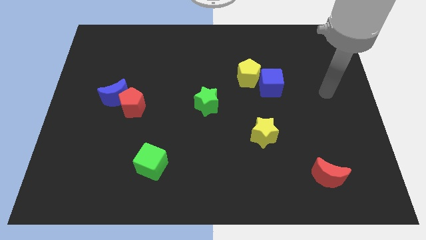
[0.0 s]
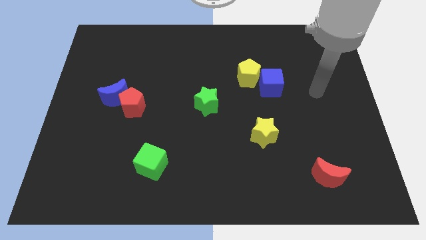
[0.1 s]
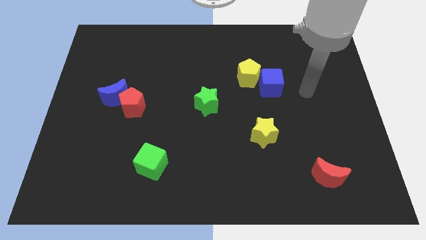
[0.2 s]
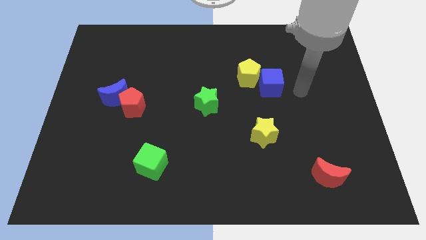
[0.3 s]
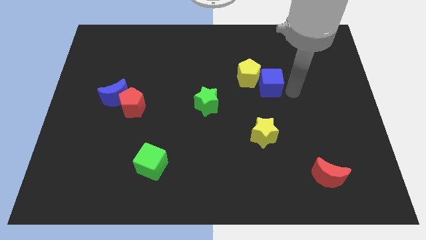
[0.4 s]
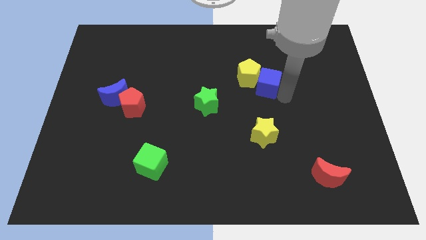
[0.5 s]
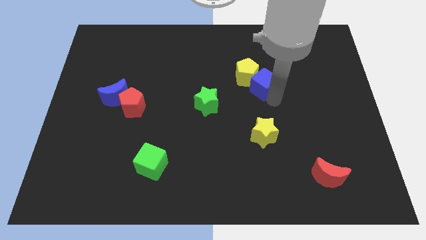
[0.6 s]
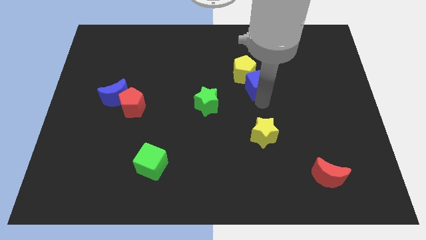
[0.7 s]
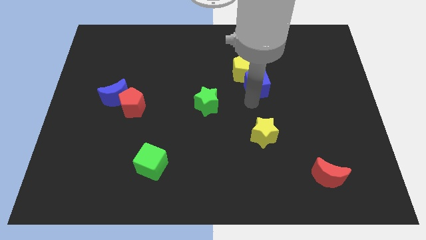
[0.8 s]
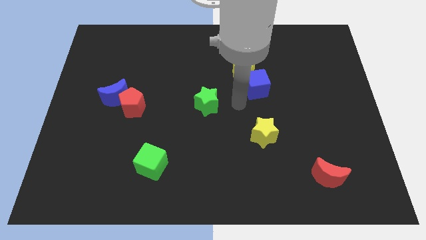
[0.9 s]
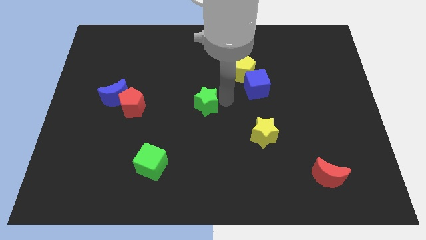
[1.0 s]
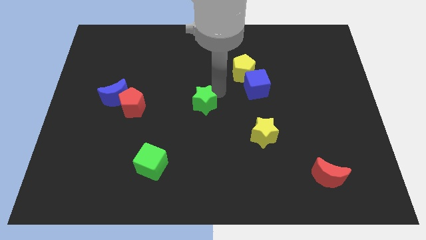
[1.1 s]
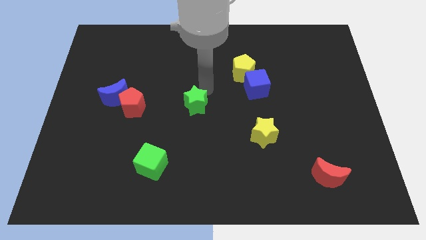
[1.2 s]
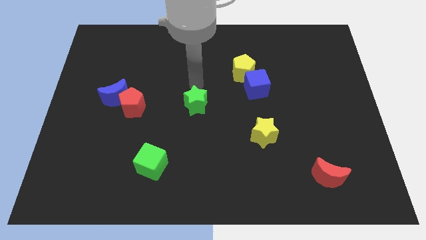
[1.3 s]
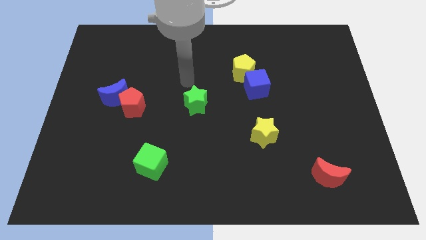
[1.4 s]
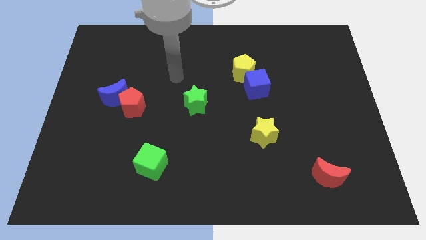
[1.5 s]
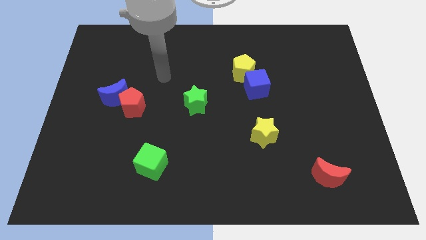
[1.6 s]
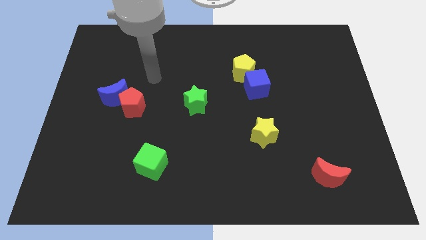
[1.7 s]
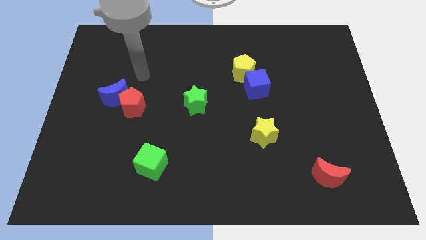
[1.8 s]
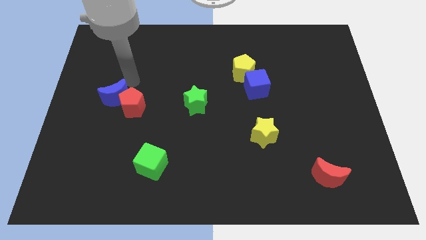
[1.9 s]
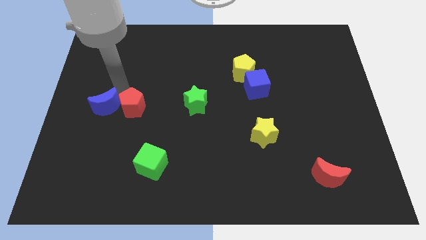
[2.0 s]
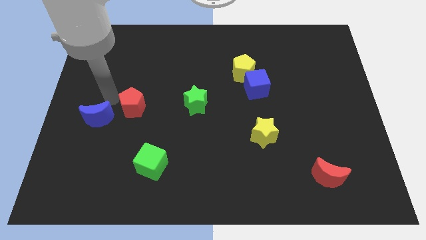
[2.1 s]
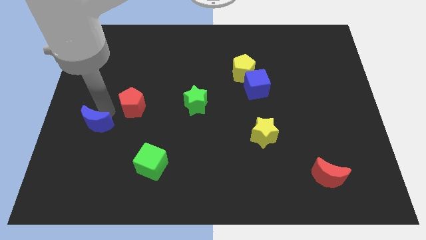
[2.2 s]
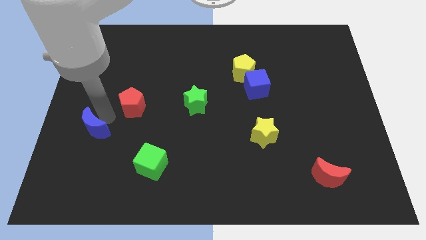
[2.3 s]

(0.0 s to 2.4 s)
pull the red pentagon apart from the blue moon

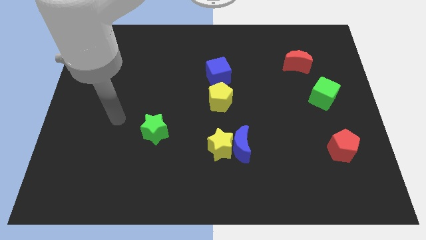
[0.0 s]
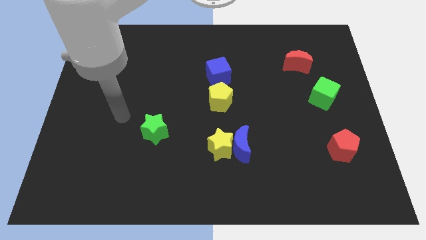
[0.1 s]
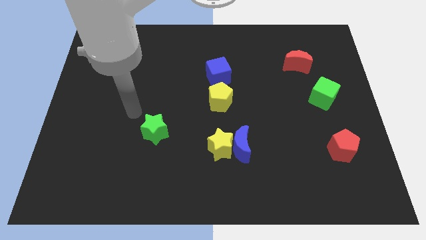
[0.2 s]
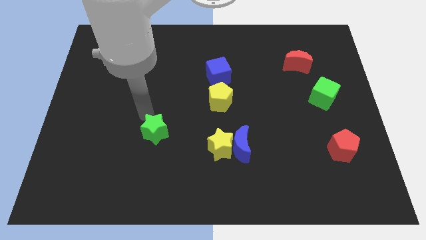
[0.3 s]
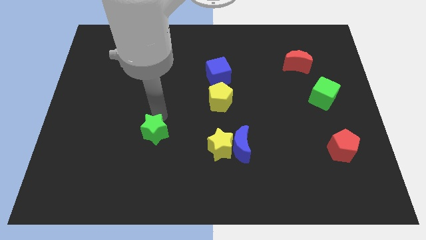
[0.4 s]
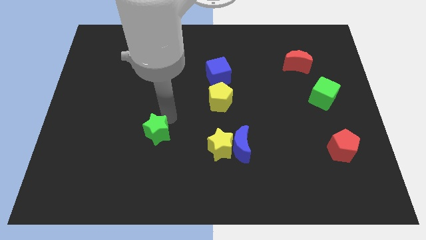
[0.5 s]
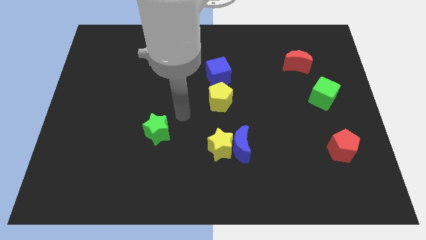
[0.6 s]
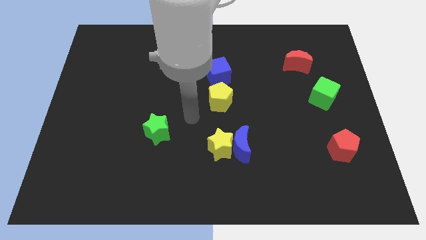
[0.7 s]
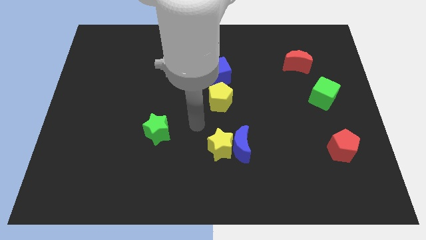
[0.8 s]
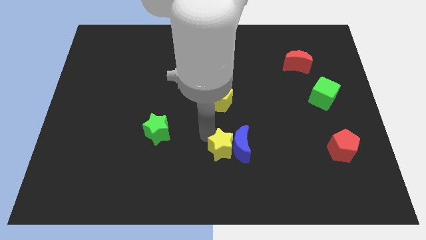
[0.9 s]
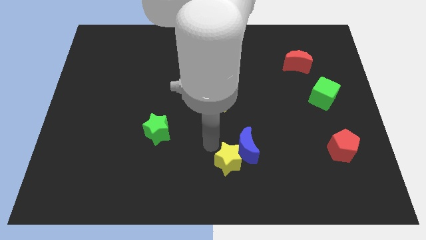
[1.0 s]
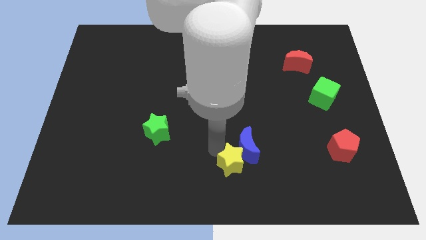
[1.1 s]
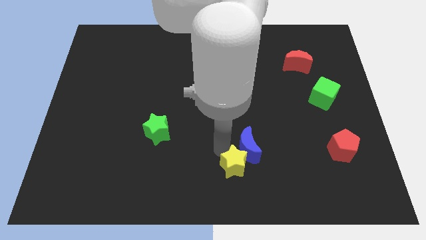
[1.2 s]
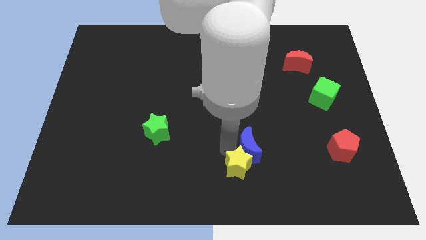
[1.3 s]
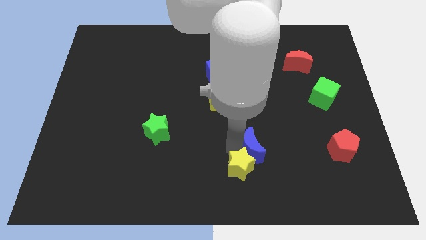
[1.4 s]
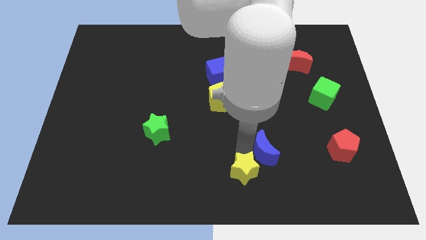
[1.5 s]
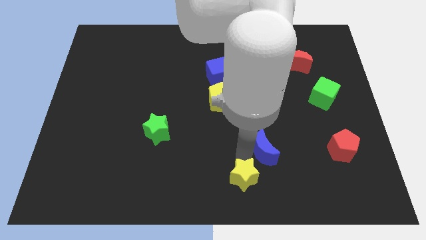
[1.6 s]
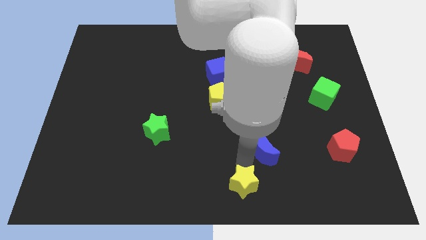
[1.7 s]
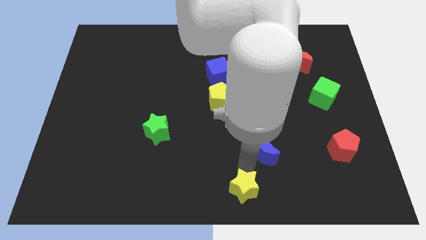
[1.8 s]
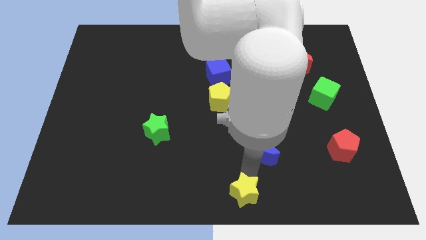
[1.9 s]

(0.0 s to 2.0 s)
pull the blue moon apart from the yellow star

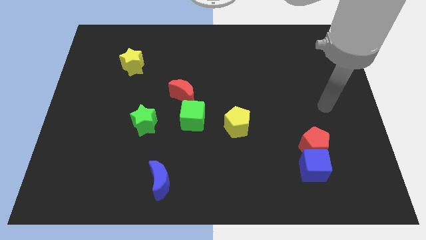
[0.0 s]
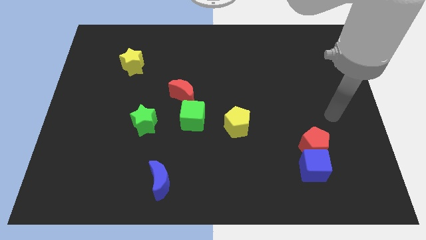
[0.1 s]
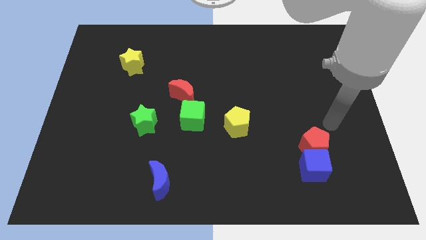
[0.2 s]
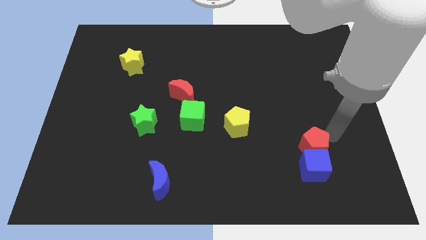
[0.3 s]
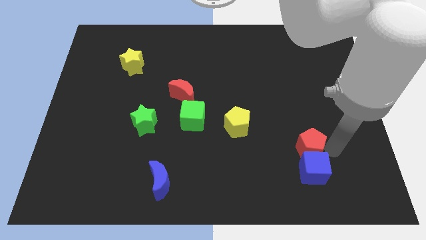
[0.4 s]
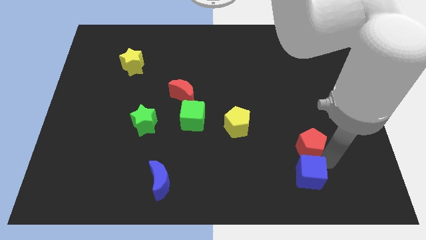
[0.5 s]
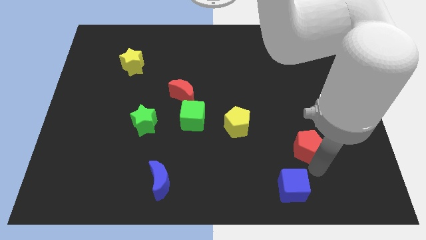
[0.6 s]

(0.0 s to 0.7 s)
move the red pentagon away from the blue cube

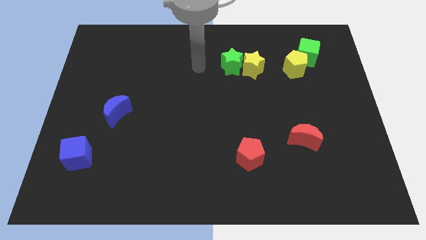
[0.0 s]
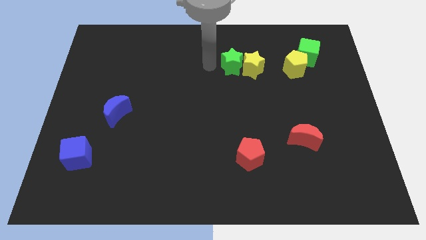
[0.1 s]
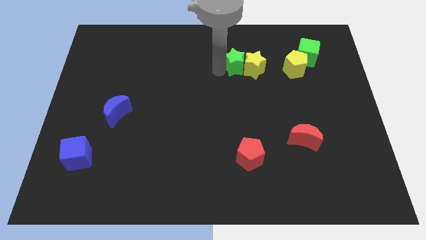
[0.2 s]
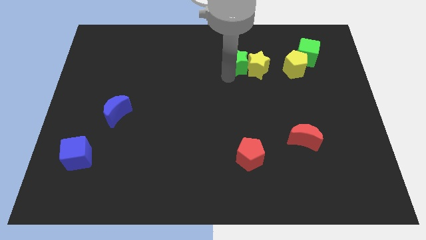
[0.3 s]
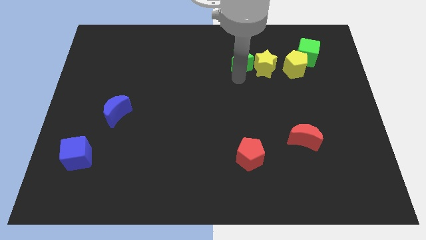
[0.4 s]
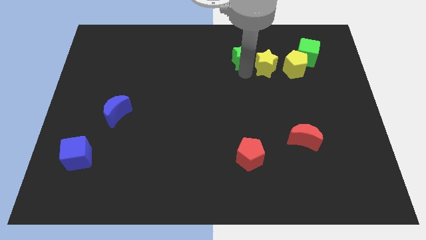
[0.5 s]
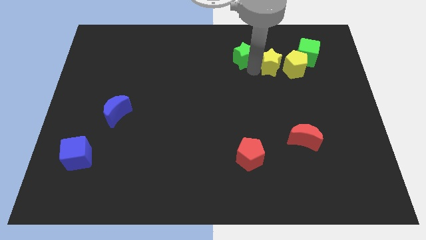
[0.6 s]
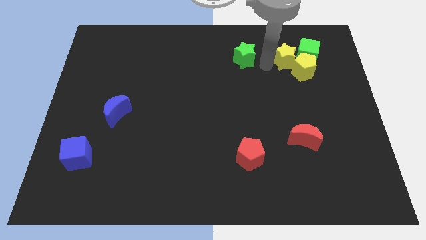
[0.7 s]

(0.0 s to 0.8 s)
separate the green star from the yellow star

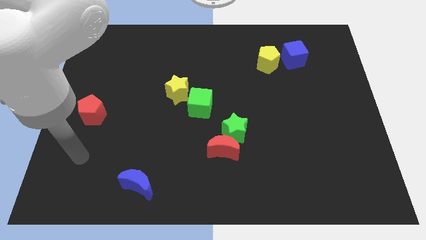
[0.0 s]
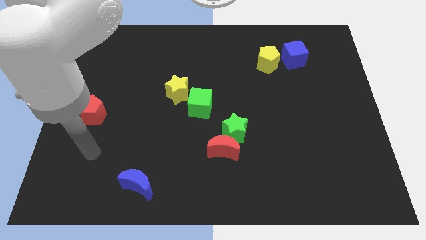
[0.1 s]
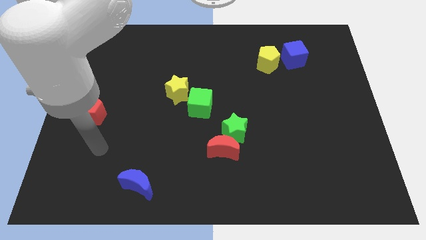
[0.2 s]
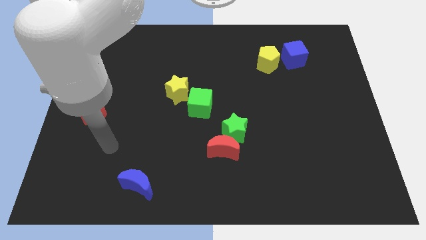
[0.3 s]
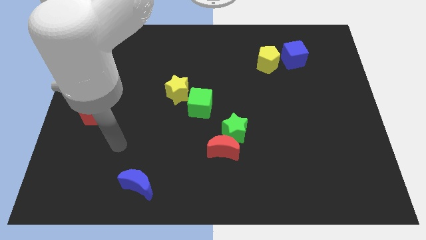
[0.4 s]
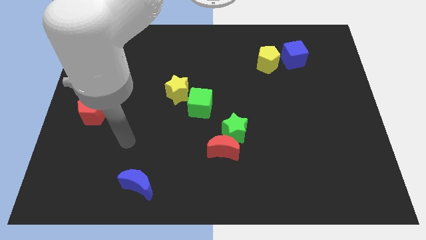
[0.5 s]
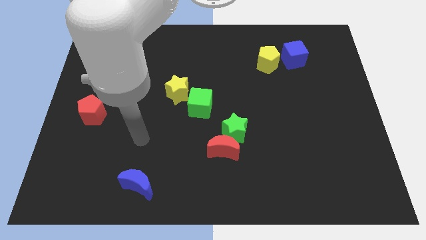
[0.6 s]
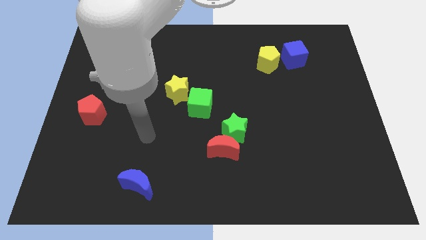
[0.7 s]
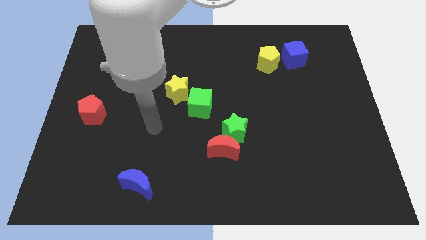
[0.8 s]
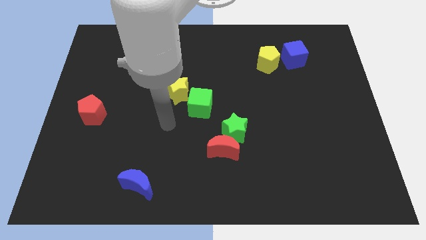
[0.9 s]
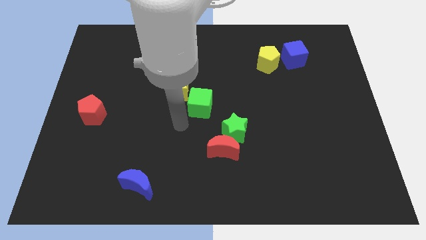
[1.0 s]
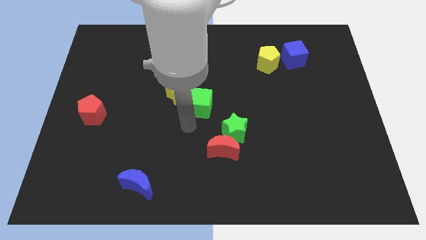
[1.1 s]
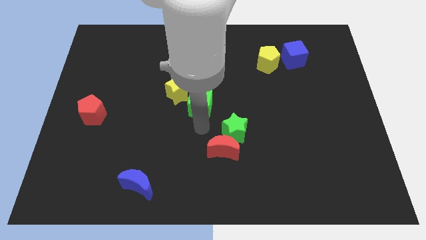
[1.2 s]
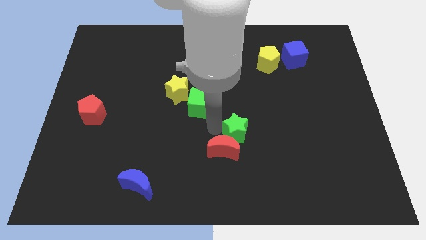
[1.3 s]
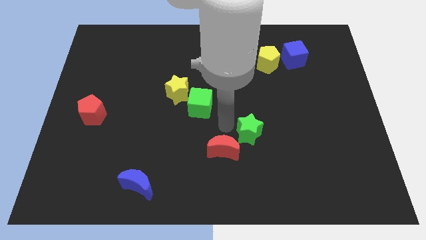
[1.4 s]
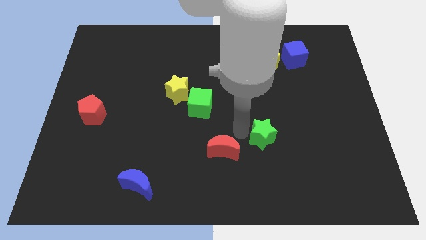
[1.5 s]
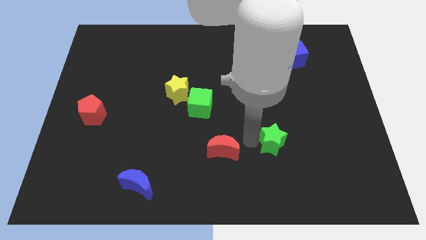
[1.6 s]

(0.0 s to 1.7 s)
move the red moon away from the green star

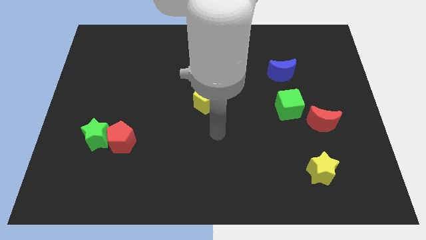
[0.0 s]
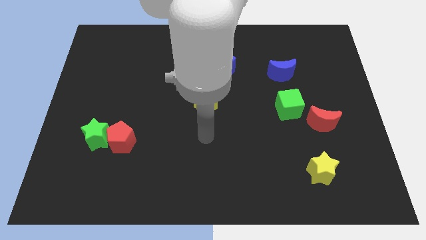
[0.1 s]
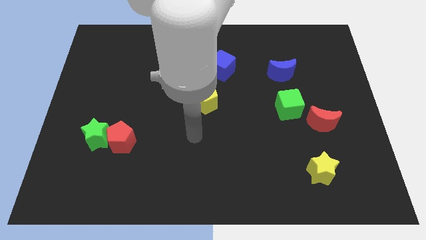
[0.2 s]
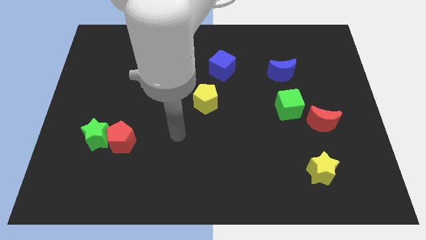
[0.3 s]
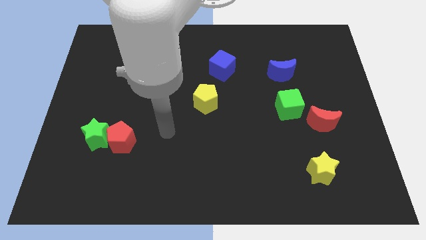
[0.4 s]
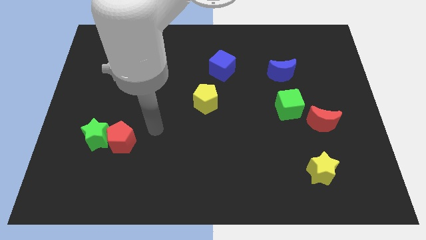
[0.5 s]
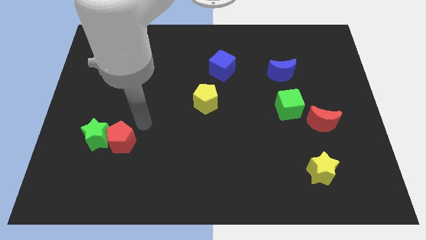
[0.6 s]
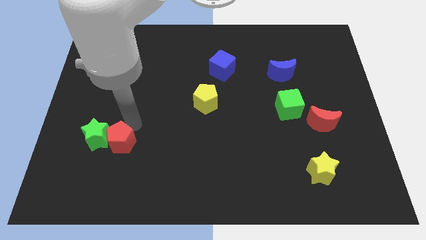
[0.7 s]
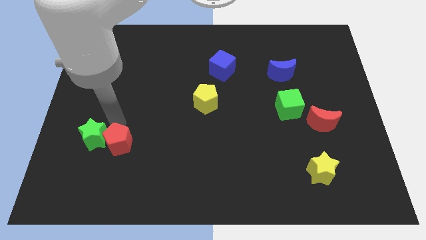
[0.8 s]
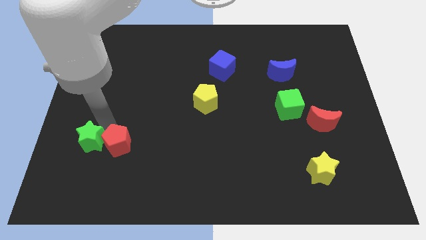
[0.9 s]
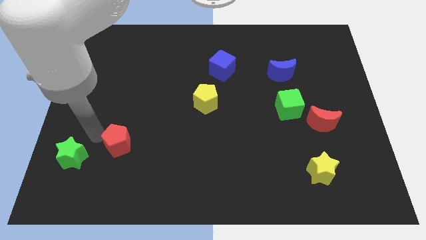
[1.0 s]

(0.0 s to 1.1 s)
separate the red pentagon from the green star

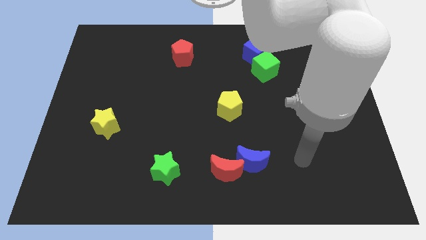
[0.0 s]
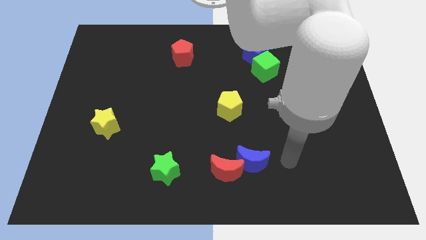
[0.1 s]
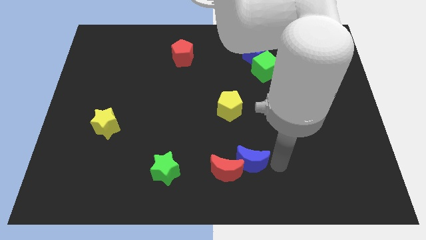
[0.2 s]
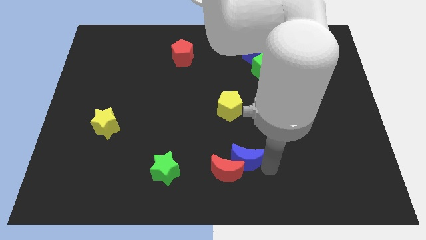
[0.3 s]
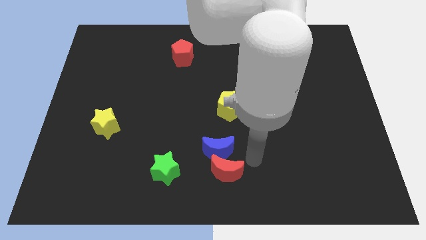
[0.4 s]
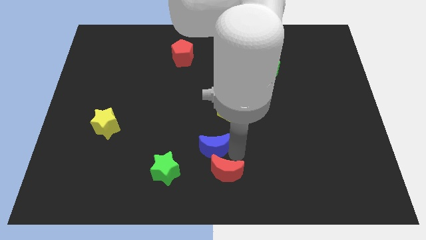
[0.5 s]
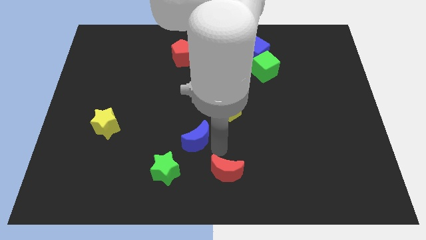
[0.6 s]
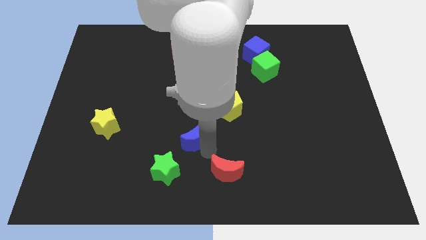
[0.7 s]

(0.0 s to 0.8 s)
pull the red moon apart from the blue moon
